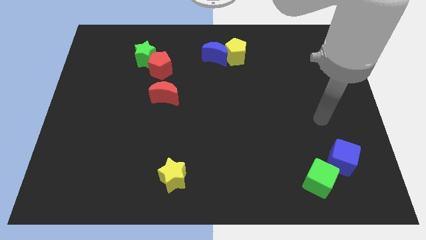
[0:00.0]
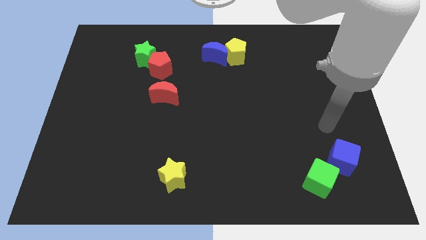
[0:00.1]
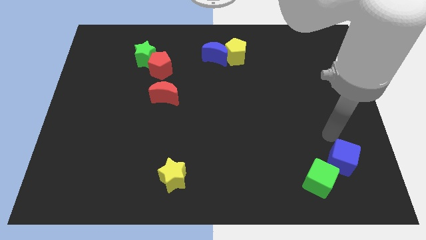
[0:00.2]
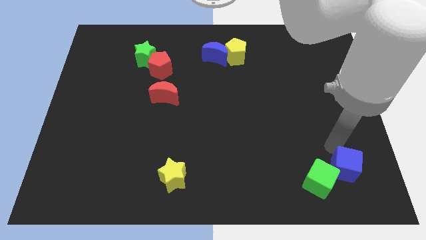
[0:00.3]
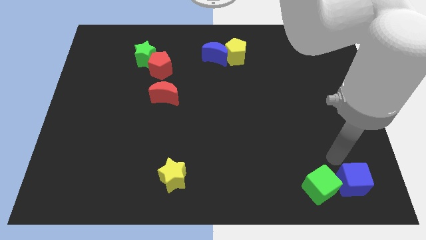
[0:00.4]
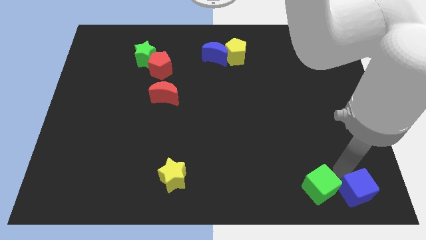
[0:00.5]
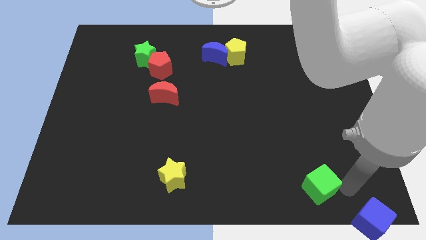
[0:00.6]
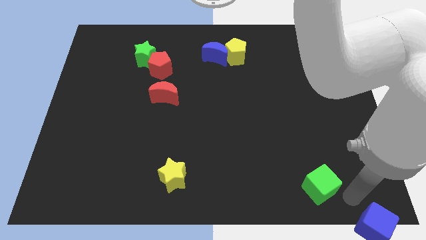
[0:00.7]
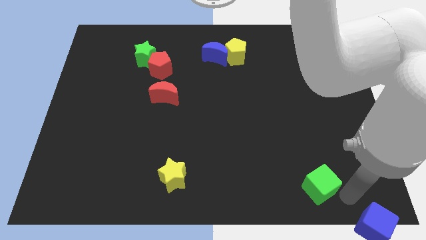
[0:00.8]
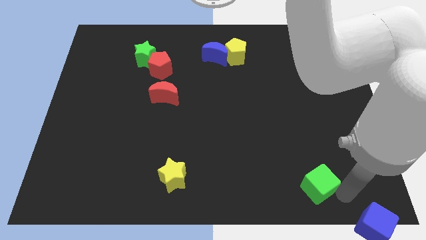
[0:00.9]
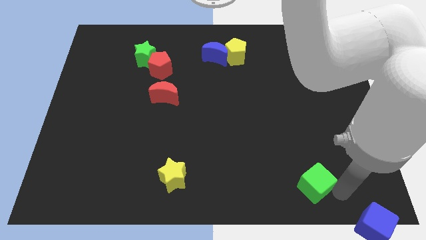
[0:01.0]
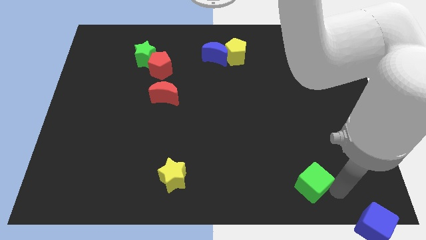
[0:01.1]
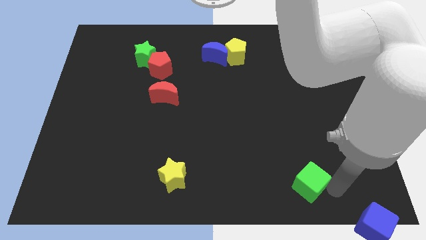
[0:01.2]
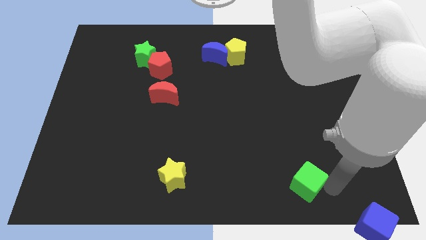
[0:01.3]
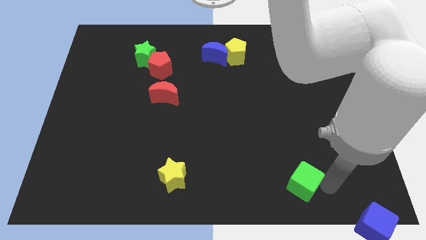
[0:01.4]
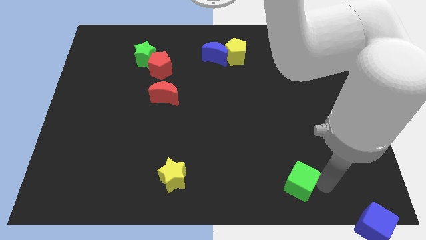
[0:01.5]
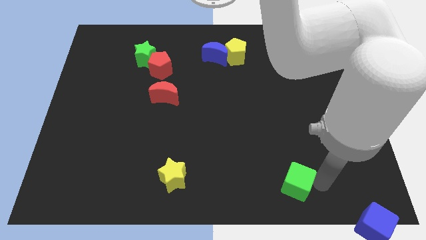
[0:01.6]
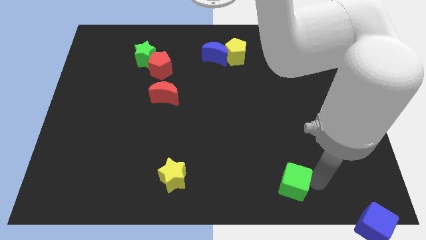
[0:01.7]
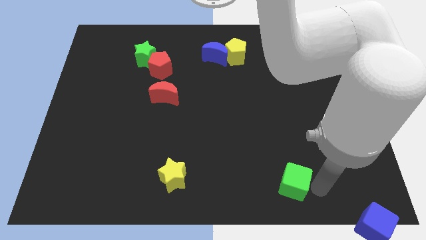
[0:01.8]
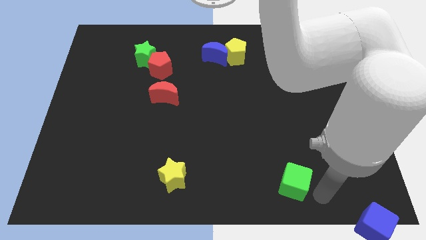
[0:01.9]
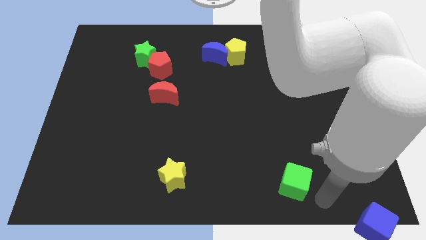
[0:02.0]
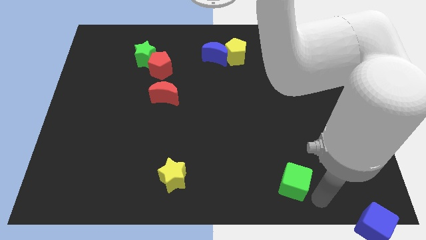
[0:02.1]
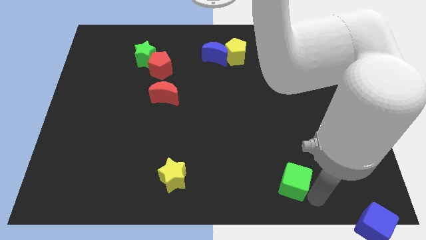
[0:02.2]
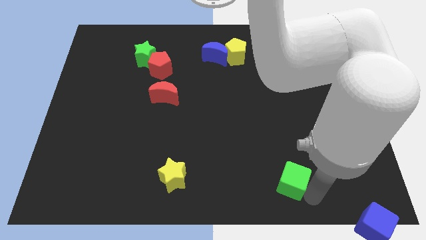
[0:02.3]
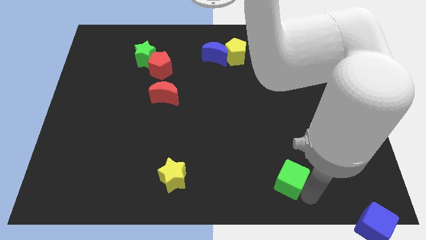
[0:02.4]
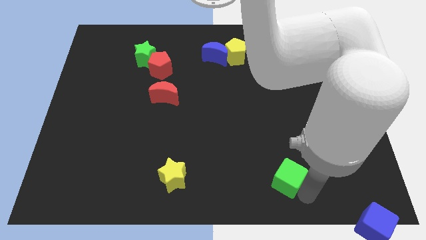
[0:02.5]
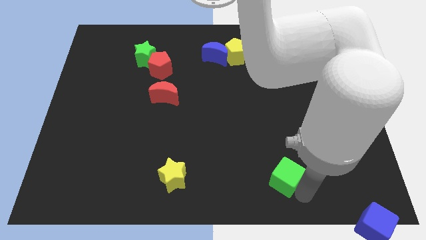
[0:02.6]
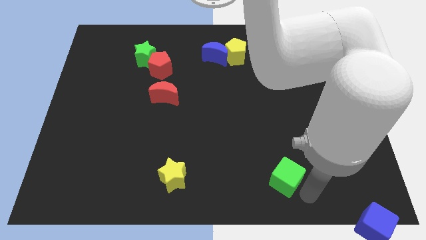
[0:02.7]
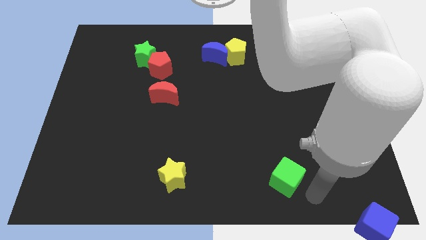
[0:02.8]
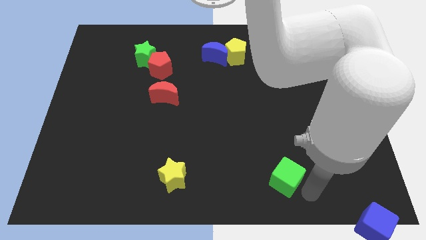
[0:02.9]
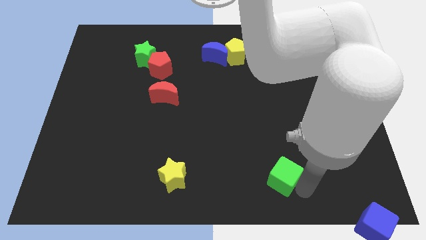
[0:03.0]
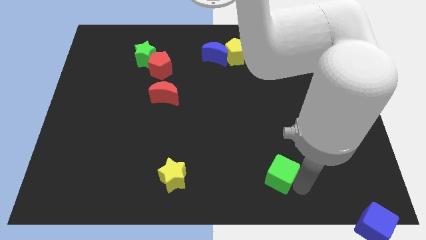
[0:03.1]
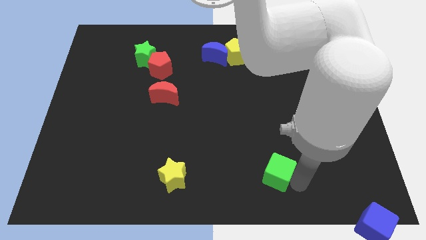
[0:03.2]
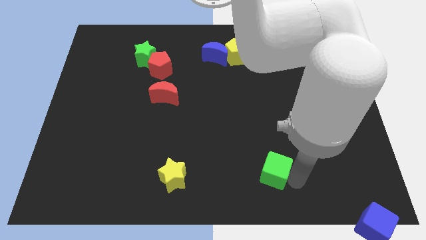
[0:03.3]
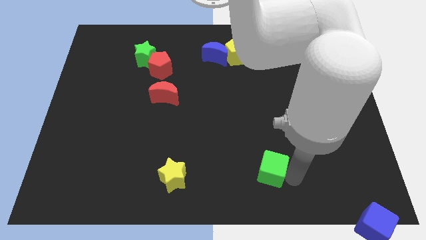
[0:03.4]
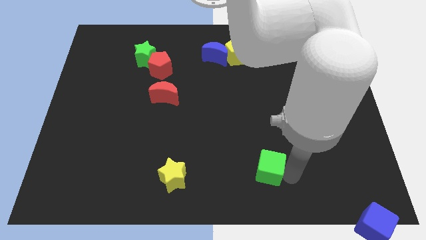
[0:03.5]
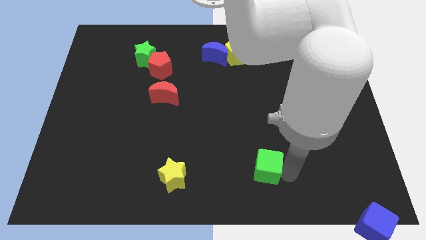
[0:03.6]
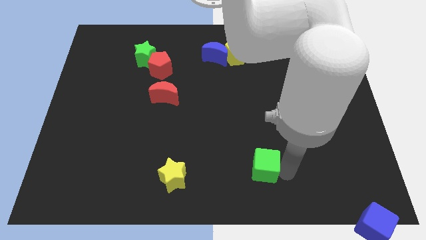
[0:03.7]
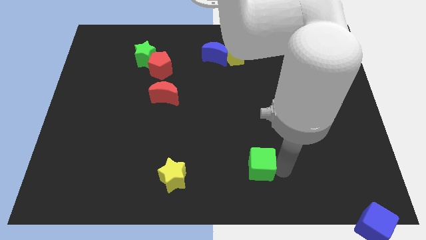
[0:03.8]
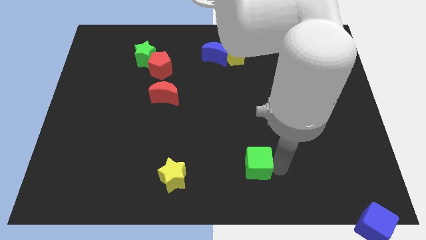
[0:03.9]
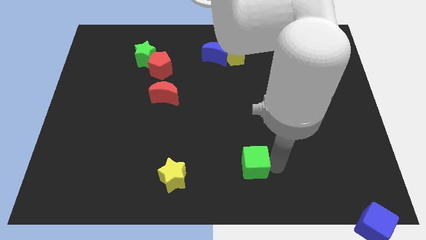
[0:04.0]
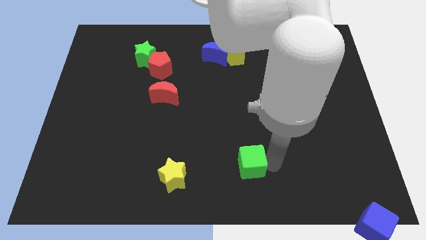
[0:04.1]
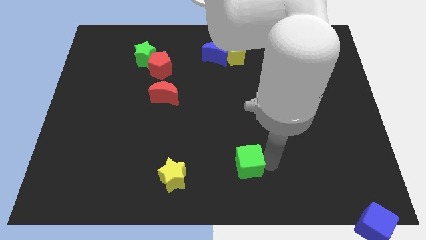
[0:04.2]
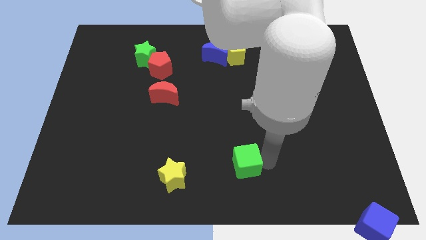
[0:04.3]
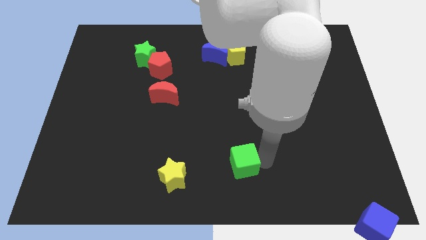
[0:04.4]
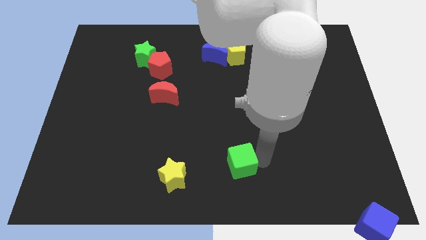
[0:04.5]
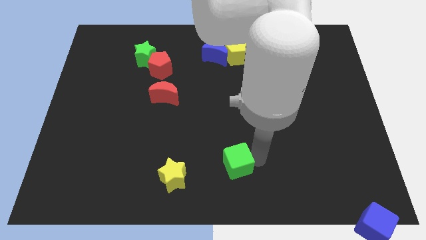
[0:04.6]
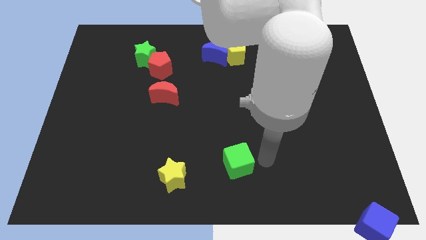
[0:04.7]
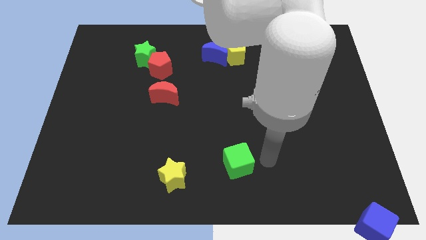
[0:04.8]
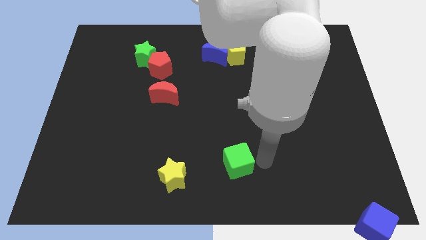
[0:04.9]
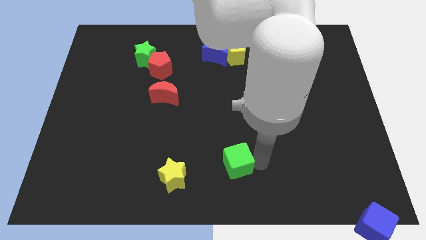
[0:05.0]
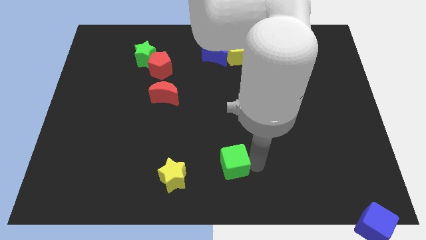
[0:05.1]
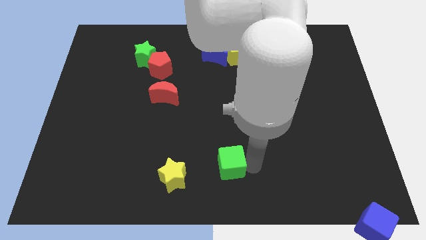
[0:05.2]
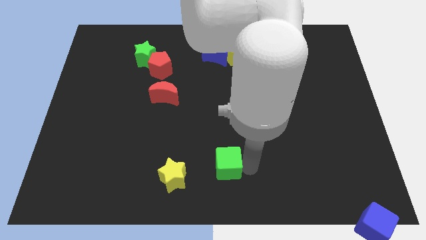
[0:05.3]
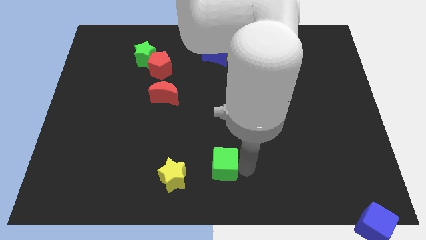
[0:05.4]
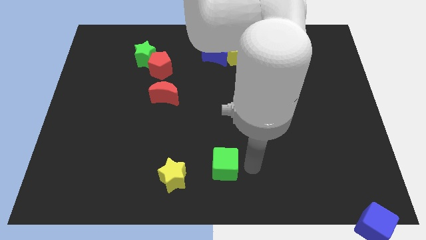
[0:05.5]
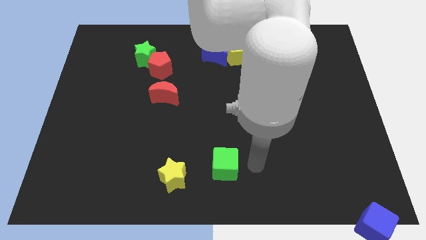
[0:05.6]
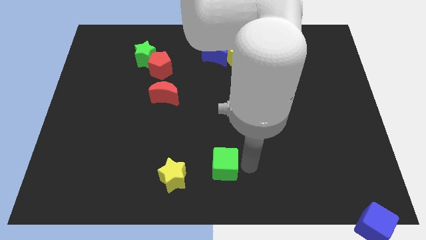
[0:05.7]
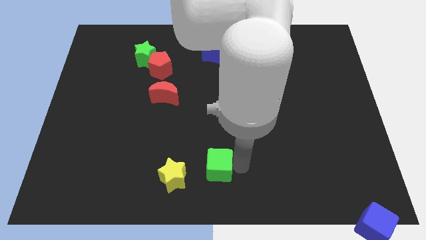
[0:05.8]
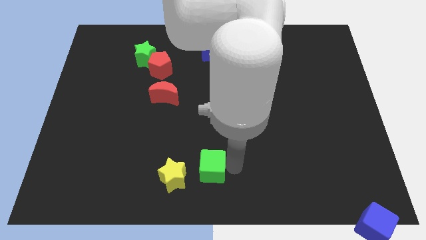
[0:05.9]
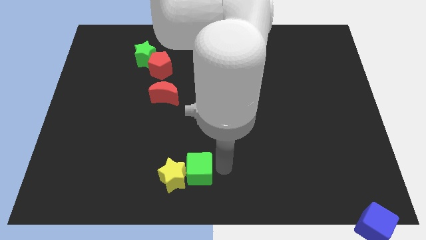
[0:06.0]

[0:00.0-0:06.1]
put the green cube next to the yellow star
